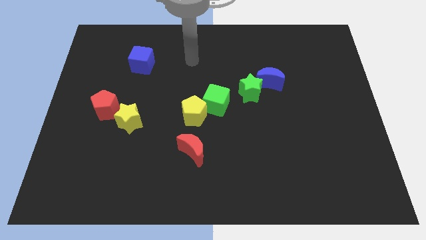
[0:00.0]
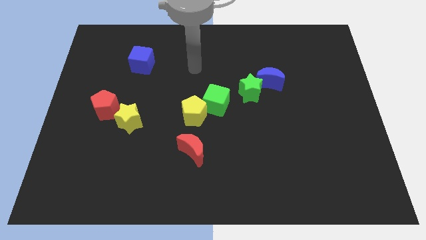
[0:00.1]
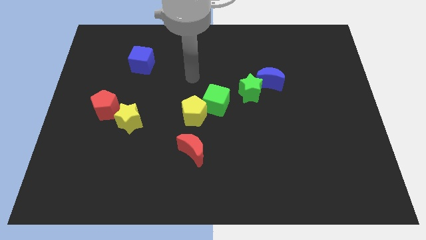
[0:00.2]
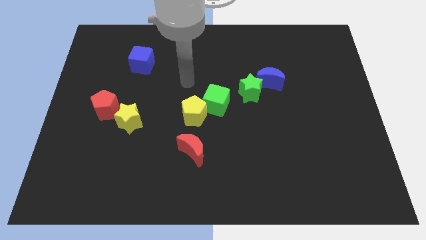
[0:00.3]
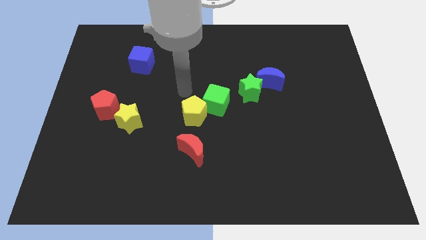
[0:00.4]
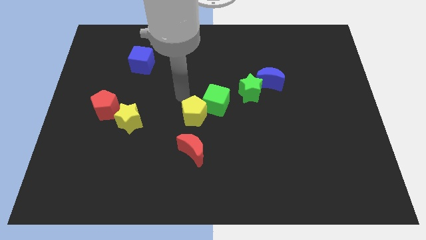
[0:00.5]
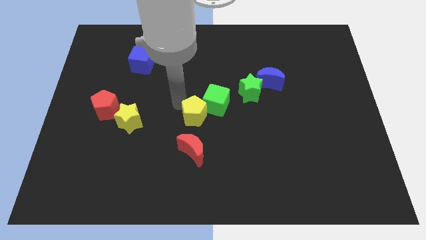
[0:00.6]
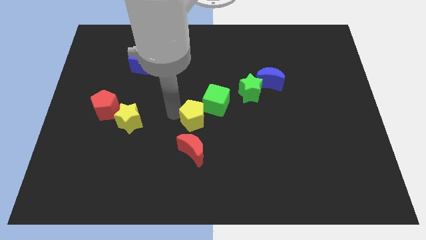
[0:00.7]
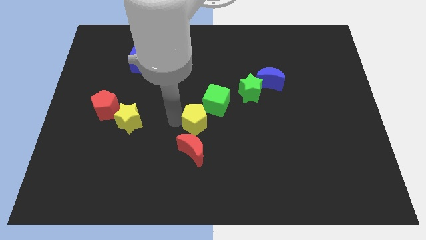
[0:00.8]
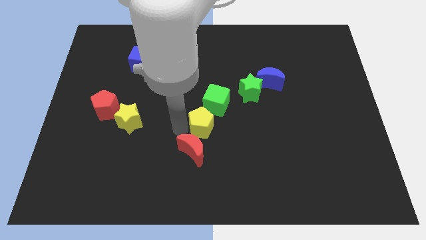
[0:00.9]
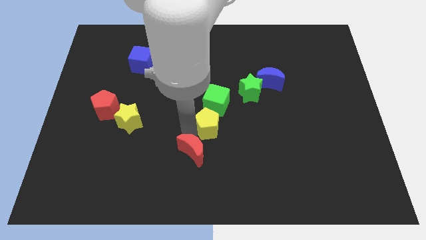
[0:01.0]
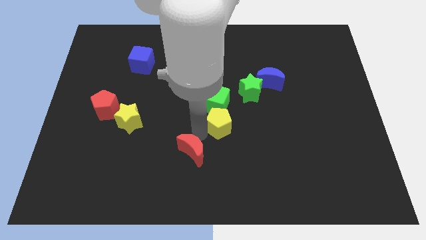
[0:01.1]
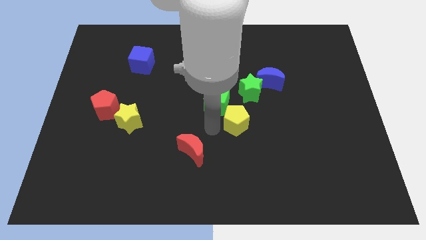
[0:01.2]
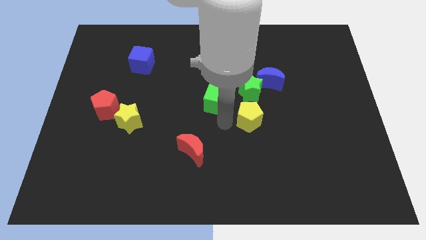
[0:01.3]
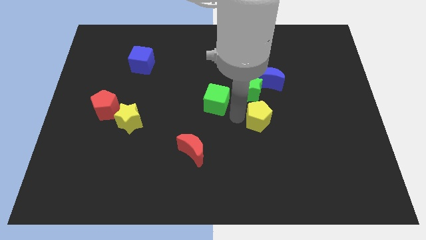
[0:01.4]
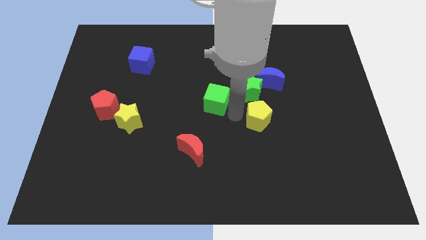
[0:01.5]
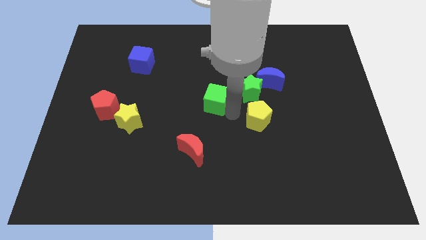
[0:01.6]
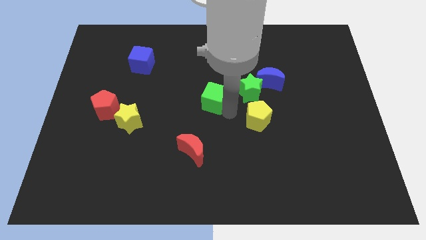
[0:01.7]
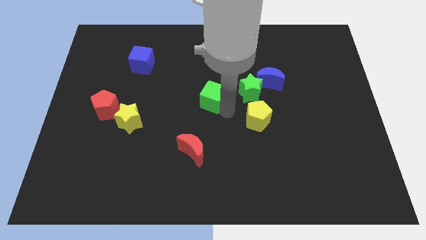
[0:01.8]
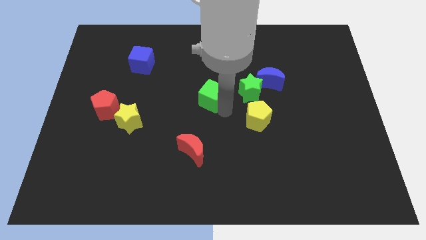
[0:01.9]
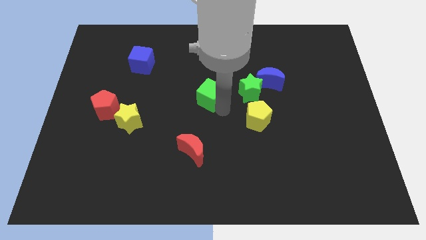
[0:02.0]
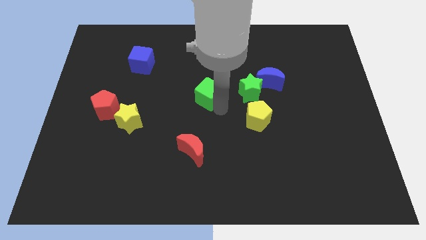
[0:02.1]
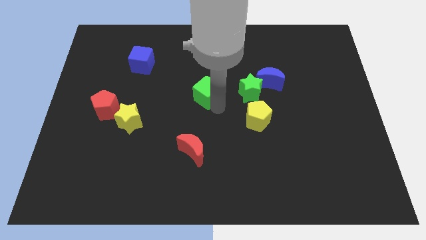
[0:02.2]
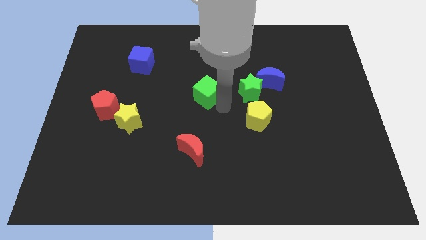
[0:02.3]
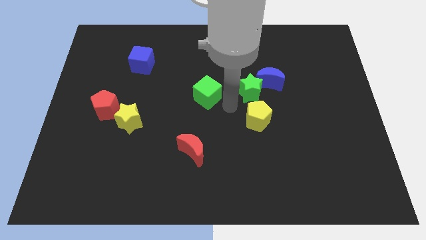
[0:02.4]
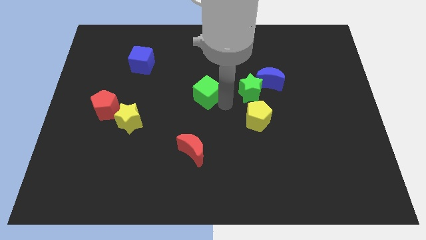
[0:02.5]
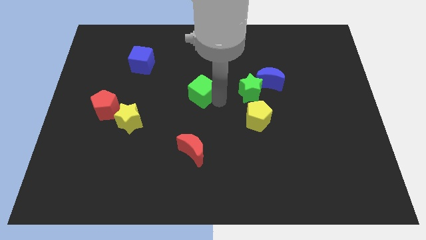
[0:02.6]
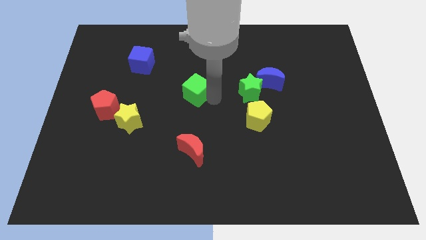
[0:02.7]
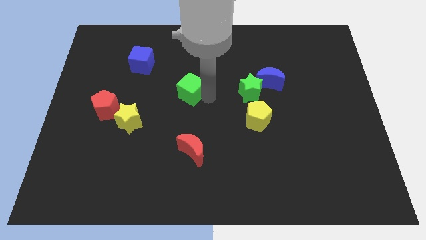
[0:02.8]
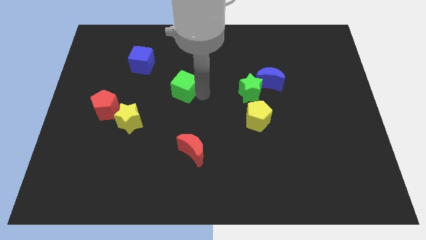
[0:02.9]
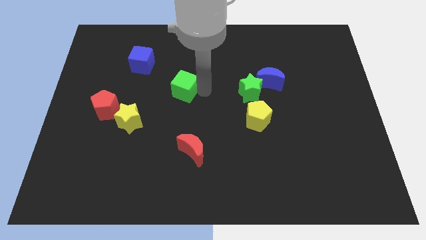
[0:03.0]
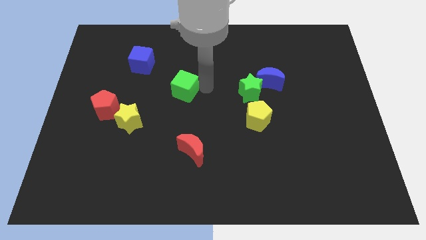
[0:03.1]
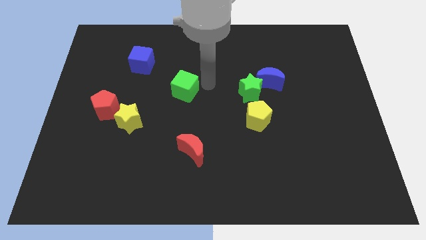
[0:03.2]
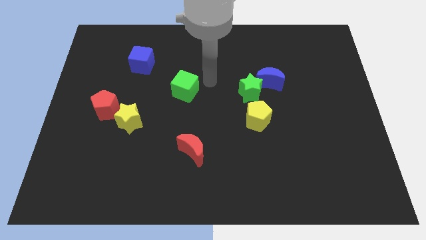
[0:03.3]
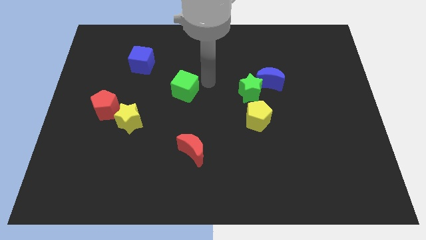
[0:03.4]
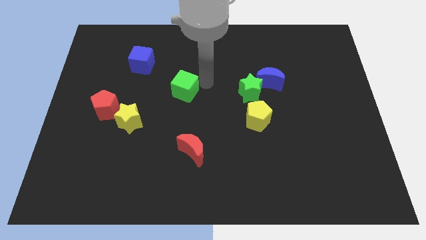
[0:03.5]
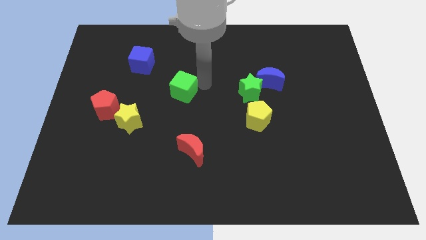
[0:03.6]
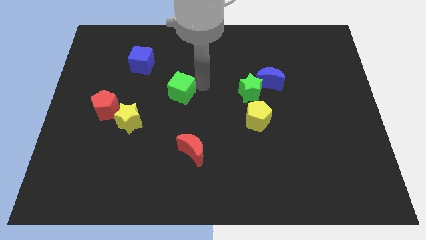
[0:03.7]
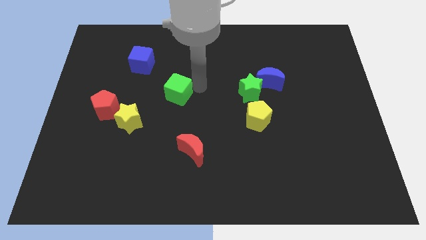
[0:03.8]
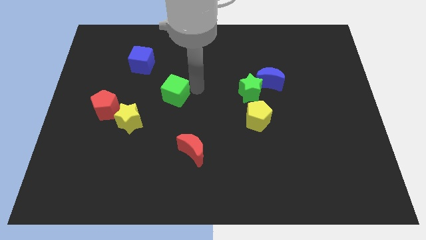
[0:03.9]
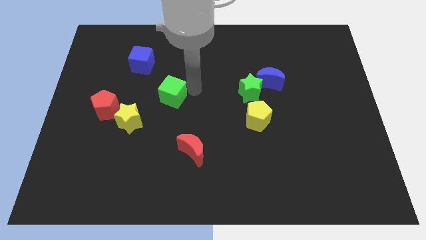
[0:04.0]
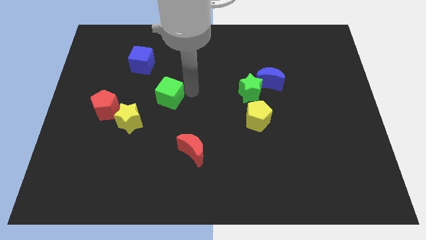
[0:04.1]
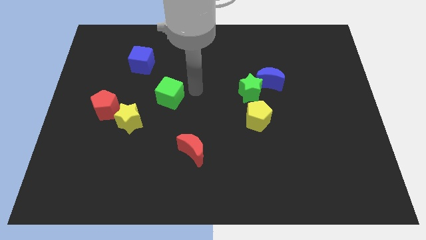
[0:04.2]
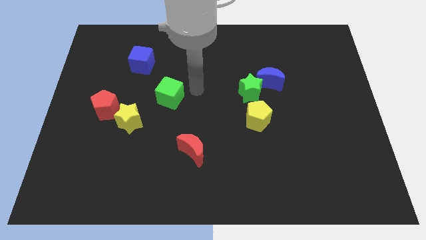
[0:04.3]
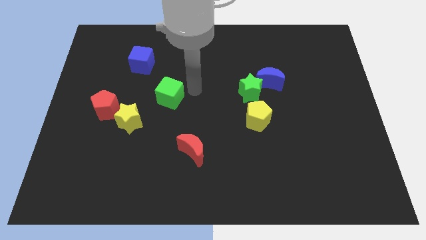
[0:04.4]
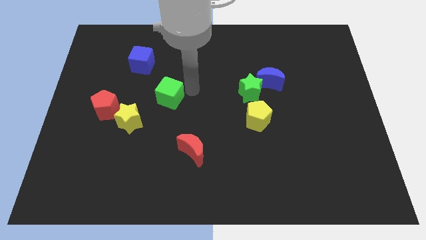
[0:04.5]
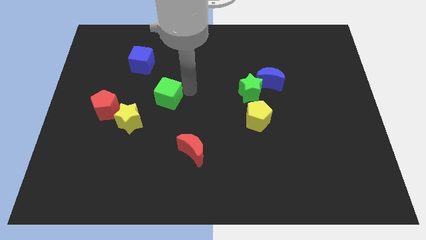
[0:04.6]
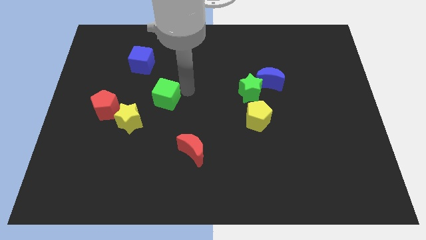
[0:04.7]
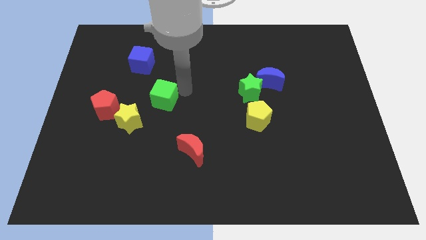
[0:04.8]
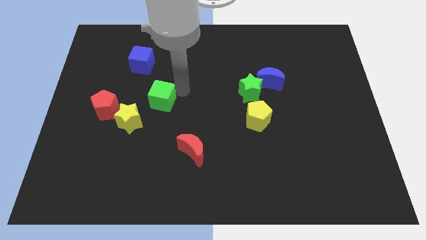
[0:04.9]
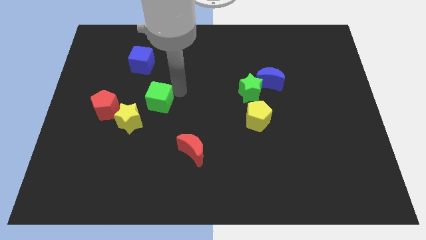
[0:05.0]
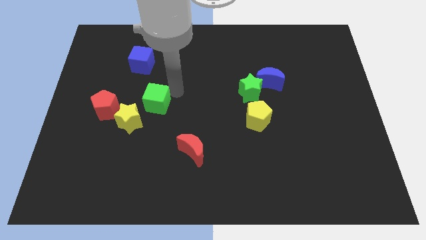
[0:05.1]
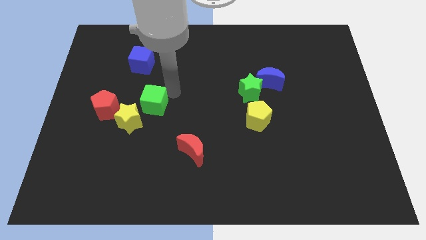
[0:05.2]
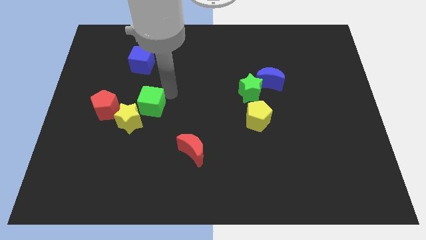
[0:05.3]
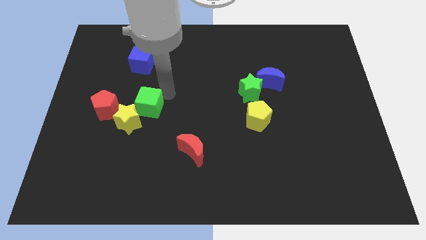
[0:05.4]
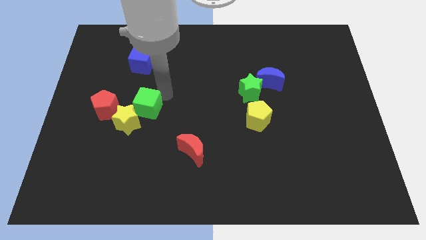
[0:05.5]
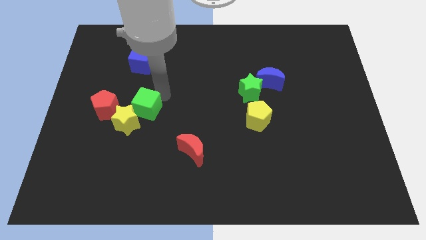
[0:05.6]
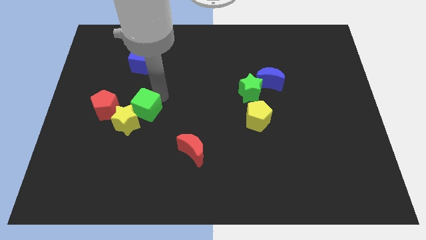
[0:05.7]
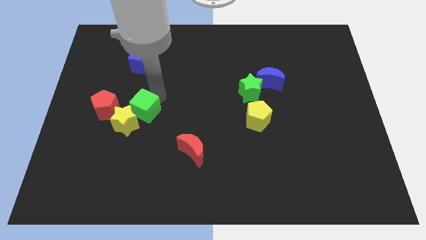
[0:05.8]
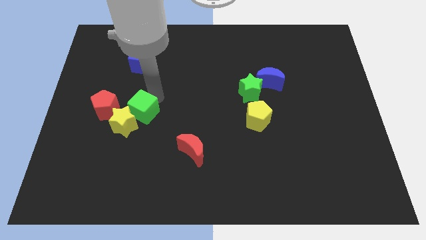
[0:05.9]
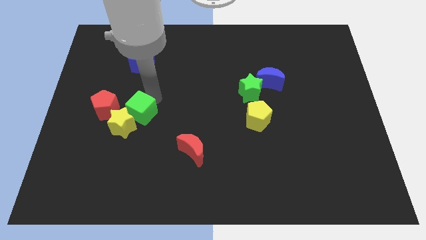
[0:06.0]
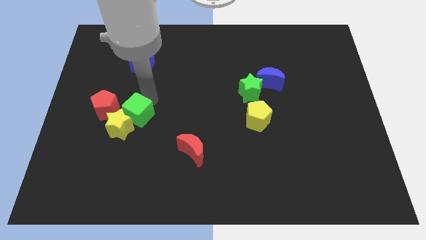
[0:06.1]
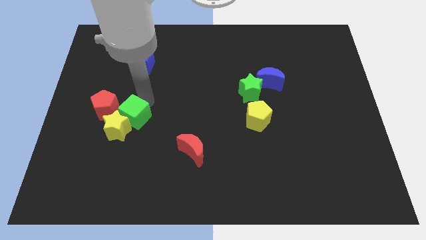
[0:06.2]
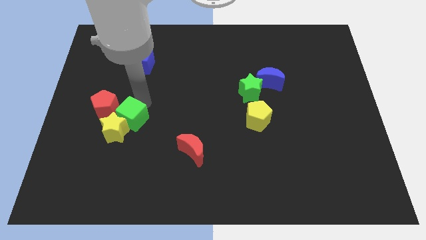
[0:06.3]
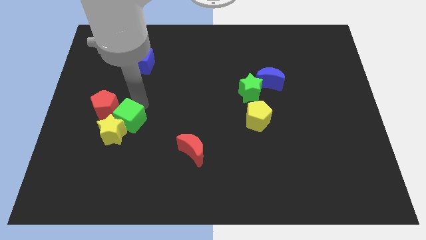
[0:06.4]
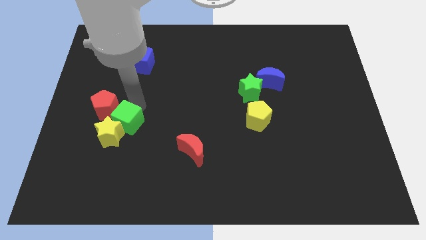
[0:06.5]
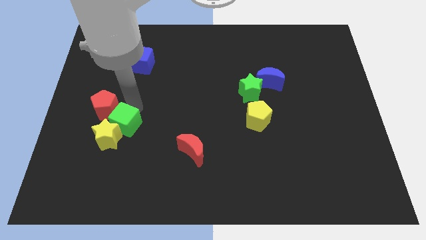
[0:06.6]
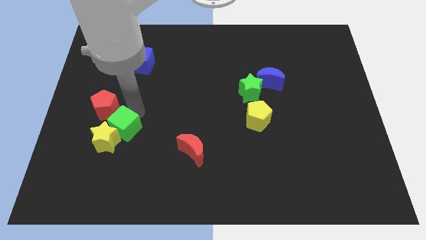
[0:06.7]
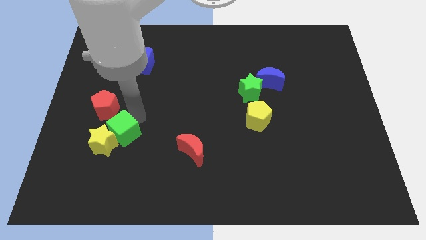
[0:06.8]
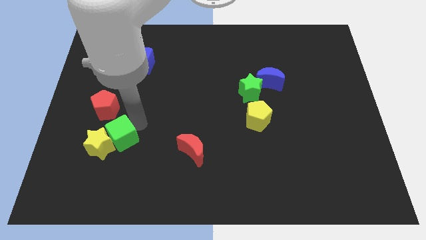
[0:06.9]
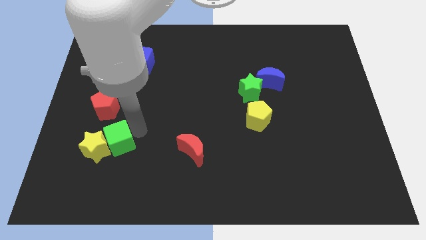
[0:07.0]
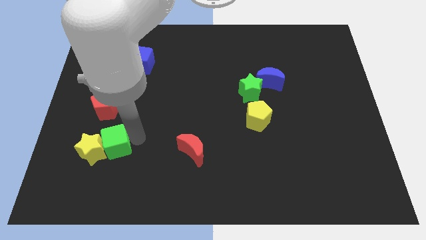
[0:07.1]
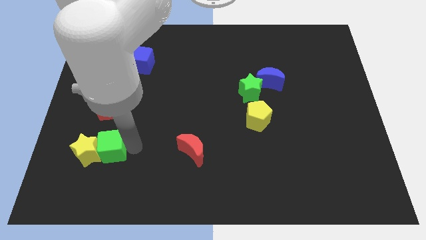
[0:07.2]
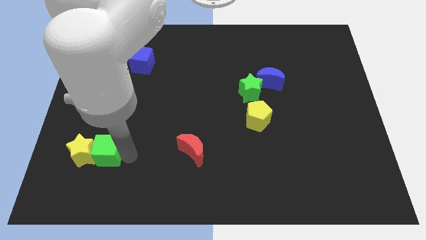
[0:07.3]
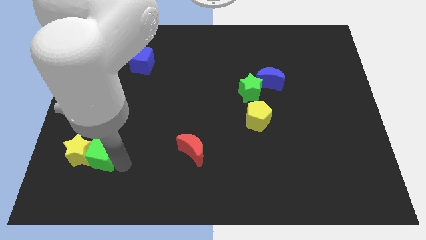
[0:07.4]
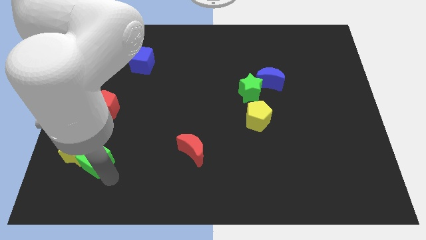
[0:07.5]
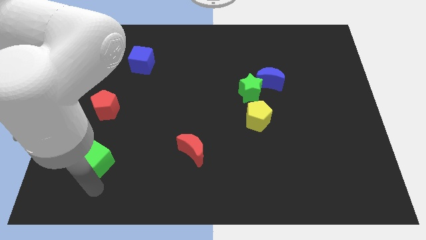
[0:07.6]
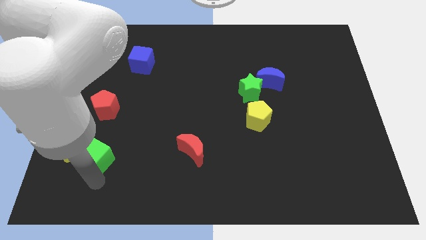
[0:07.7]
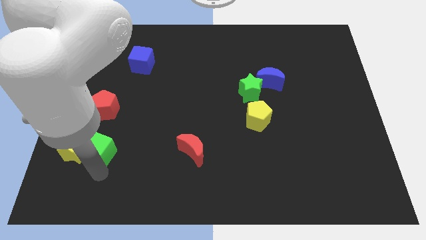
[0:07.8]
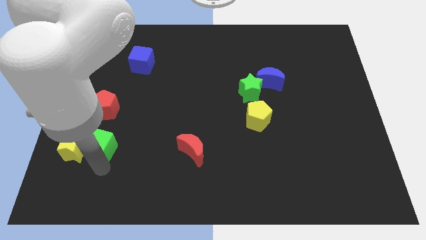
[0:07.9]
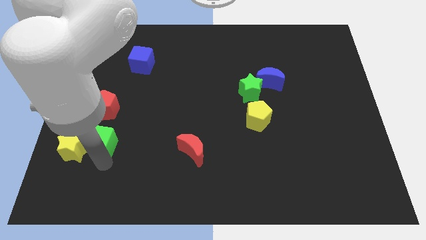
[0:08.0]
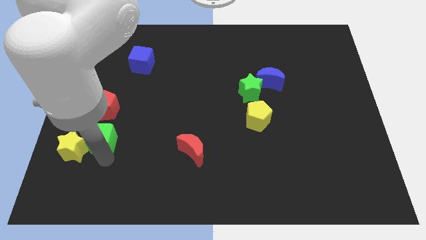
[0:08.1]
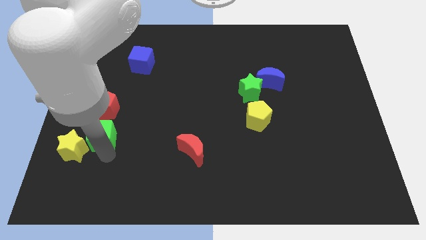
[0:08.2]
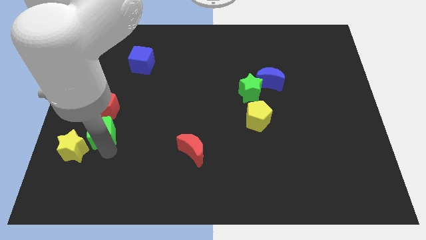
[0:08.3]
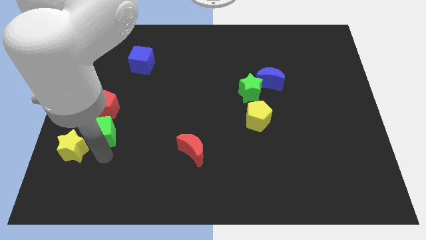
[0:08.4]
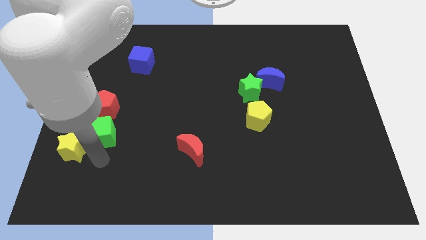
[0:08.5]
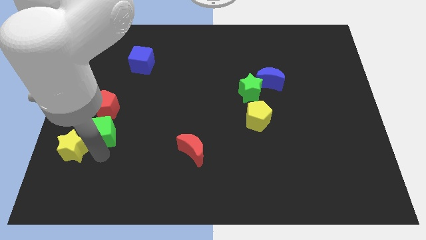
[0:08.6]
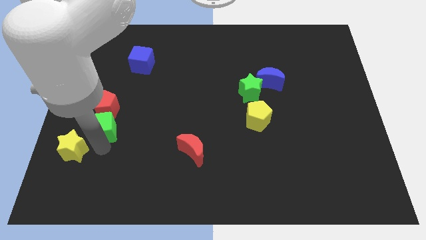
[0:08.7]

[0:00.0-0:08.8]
slide the green cube close to the red pentagon
